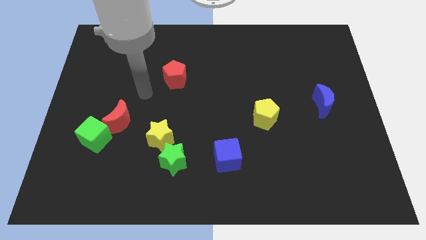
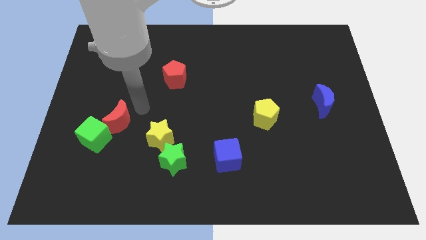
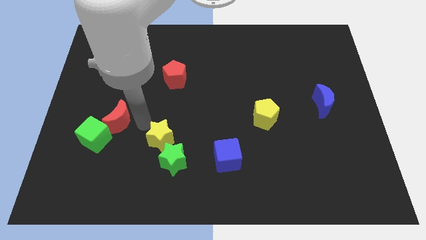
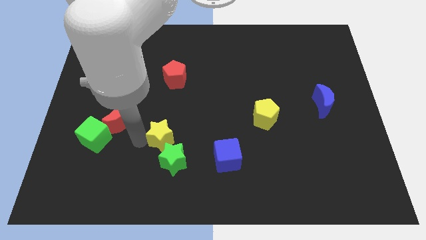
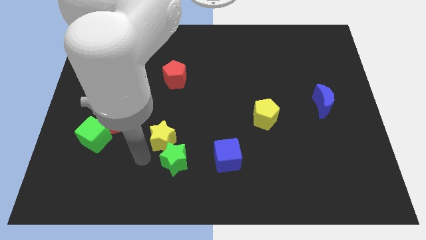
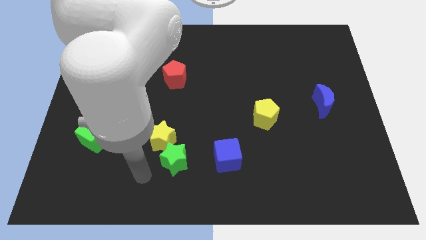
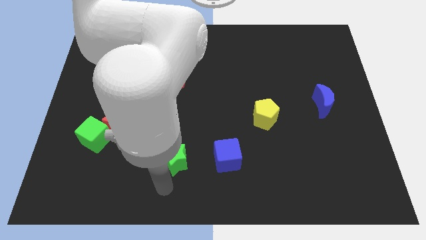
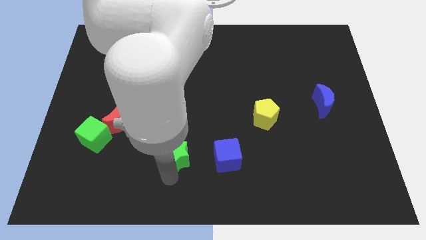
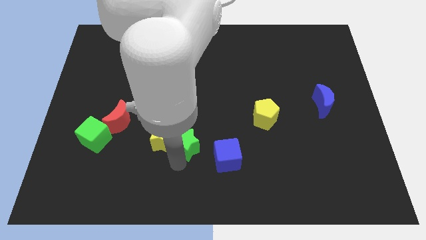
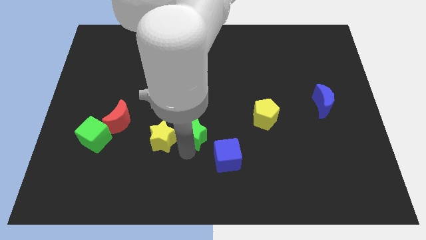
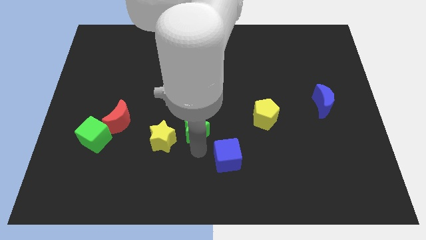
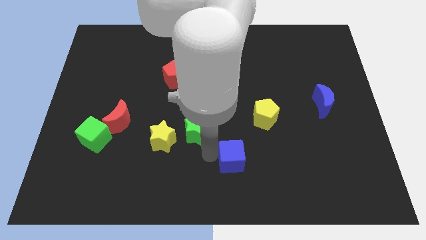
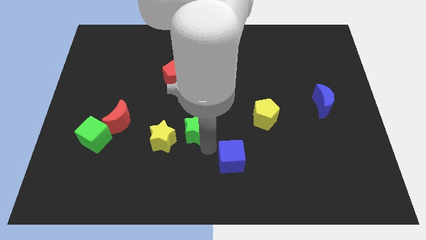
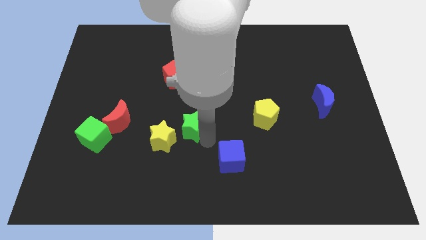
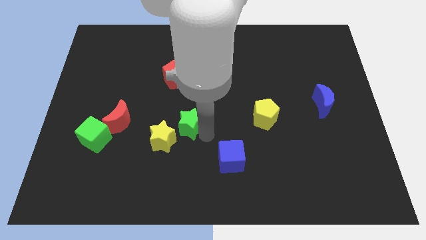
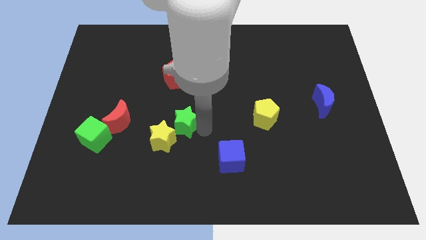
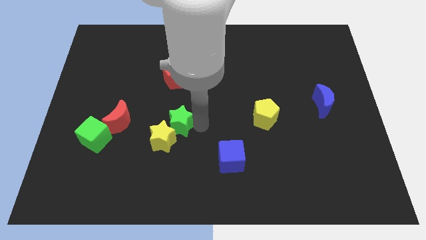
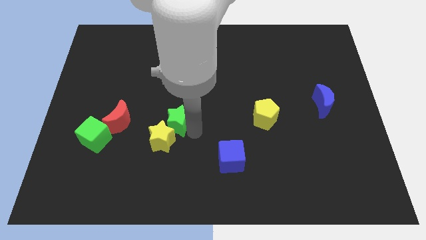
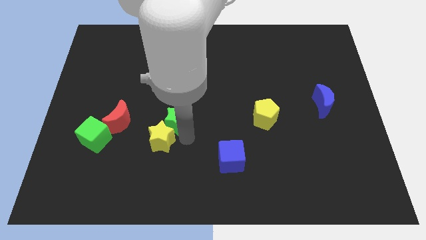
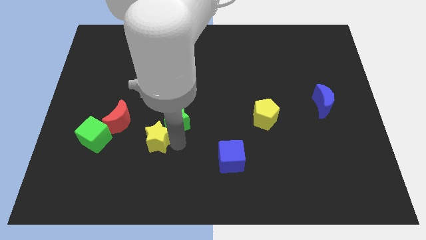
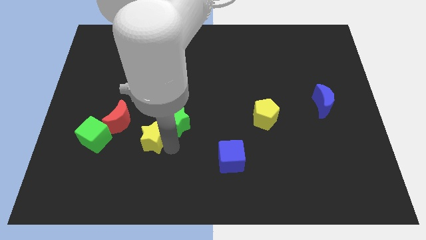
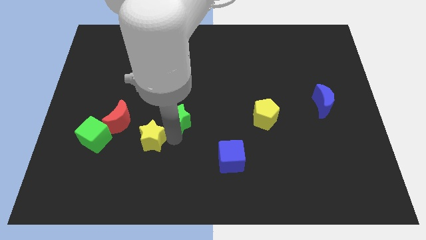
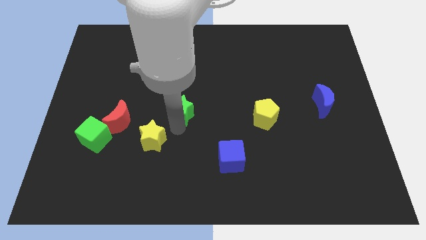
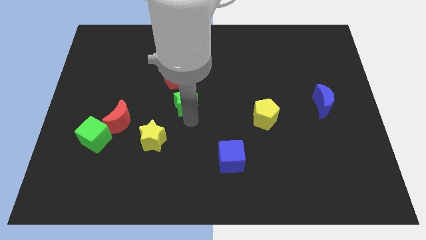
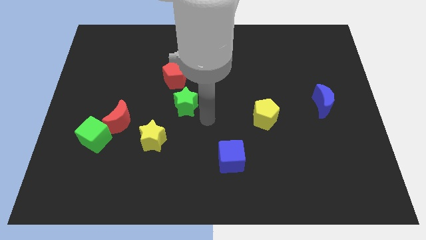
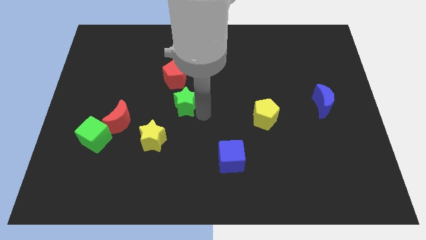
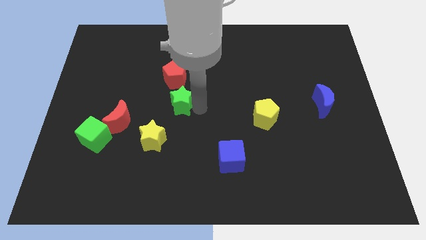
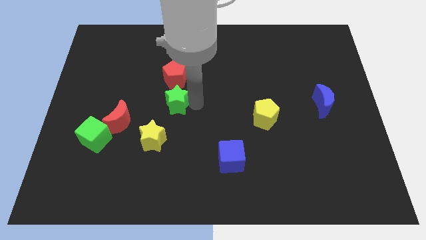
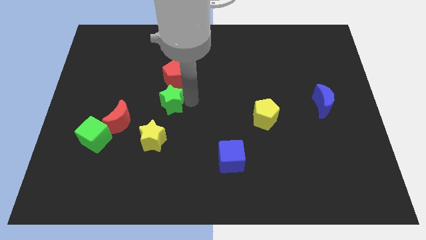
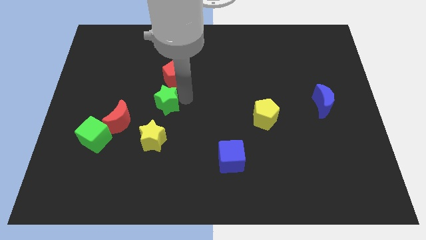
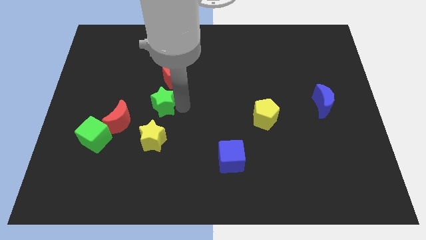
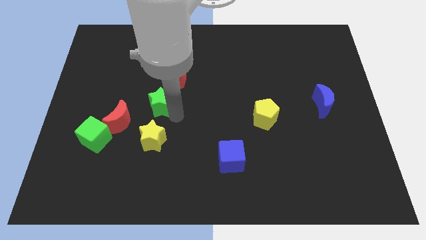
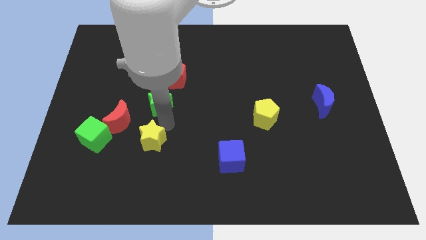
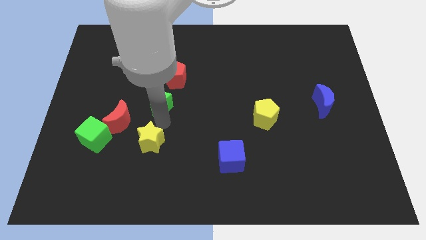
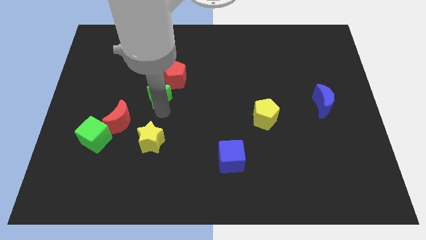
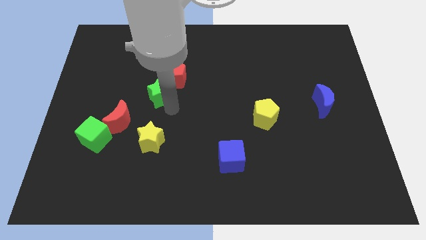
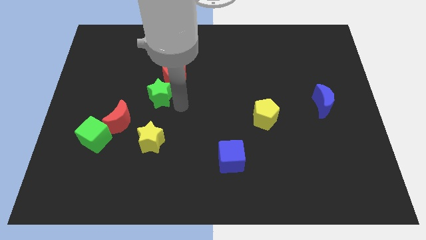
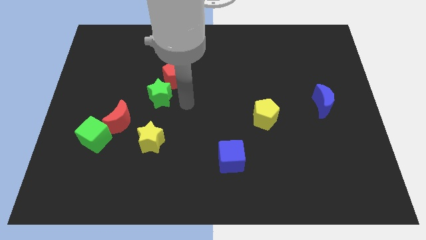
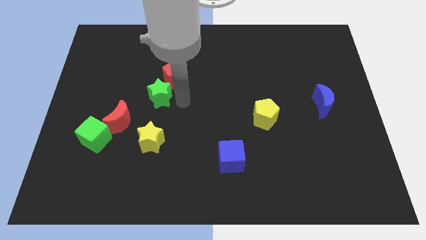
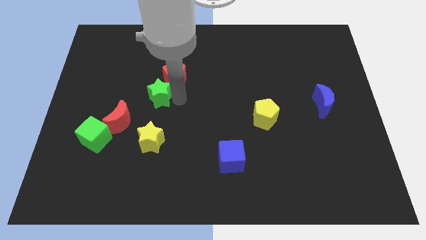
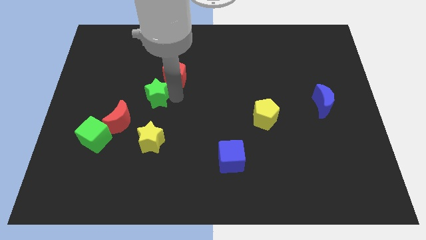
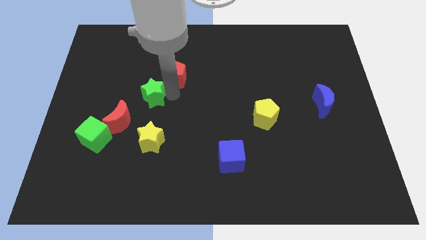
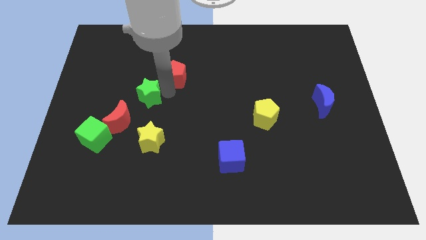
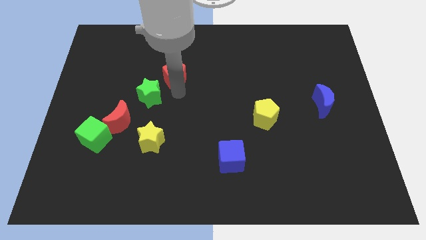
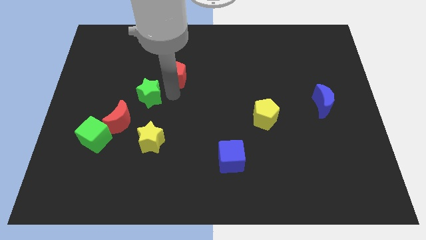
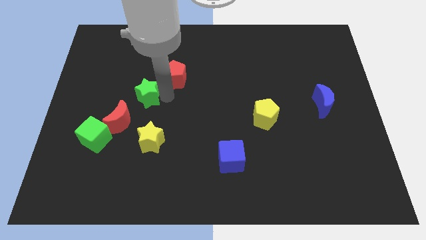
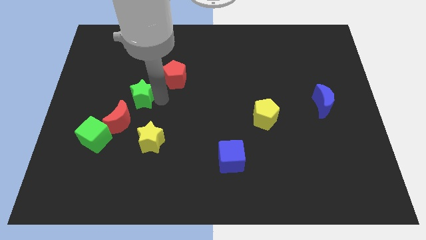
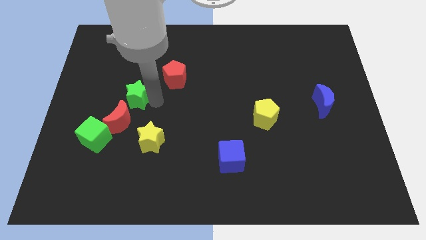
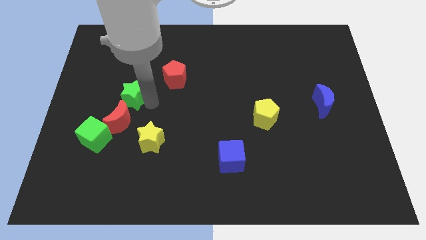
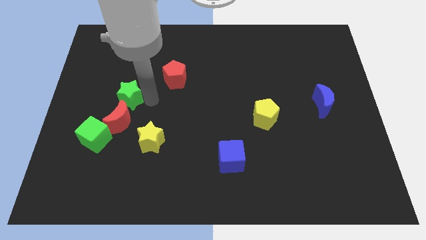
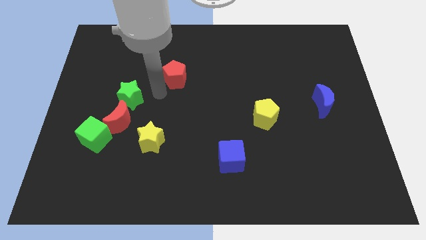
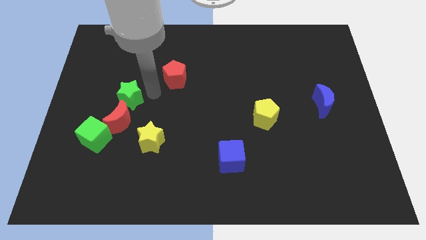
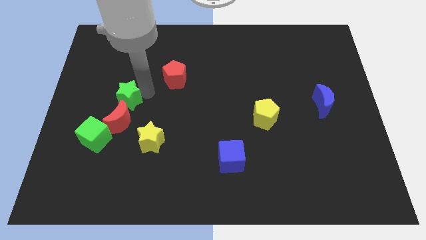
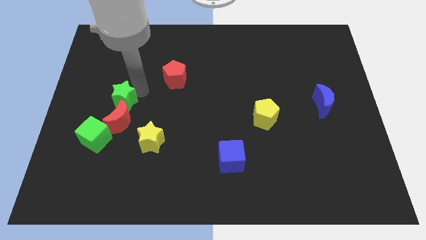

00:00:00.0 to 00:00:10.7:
put the green star to the top left side of the red moon
